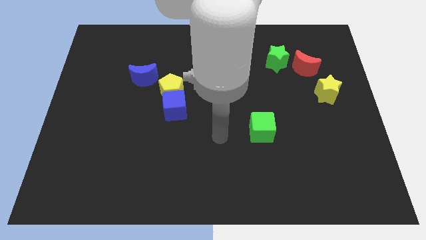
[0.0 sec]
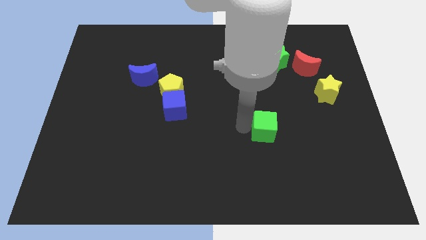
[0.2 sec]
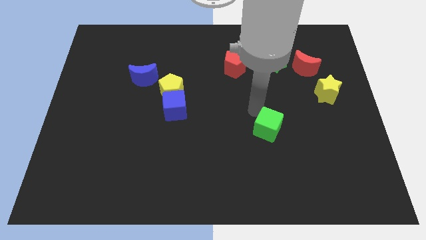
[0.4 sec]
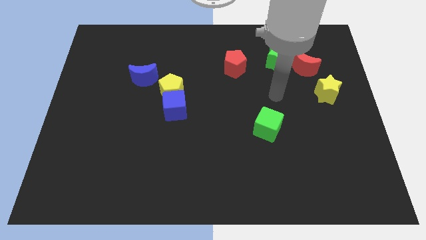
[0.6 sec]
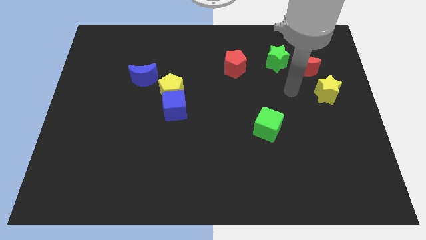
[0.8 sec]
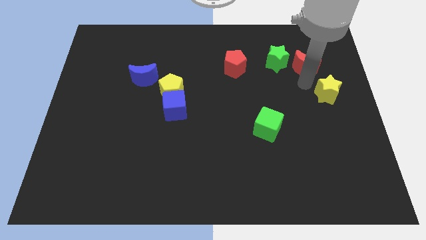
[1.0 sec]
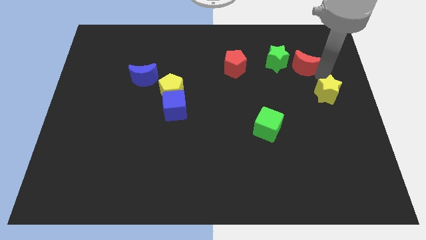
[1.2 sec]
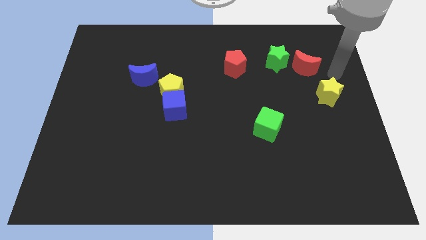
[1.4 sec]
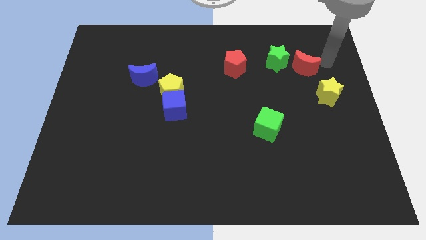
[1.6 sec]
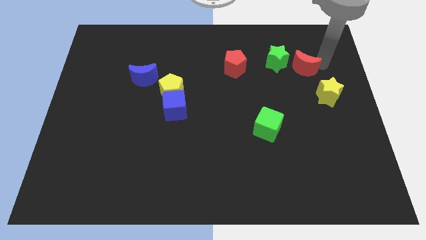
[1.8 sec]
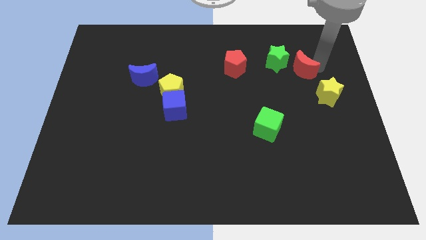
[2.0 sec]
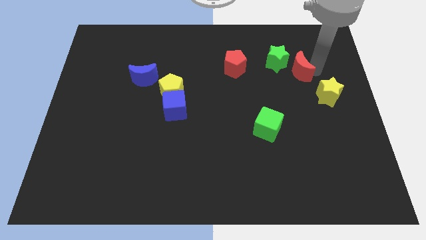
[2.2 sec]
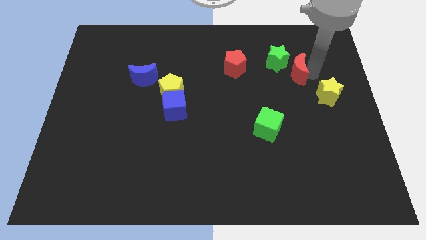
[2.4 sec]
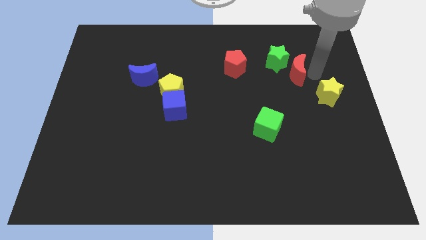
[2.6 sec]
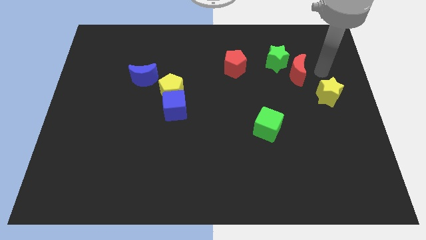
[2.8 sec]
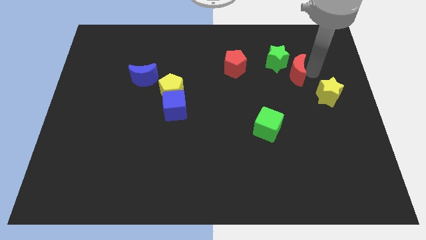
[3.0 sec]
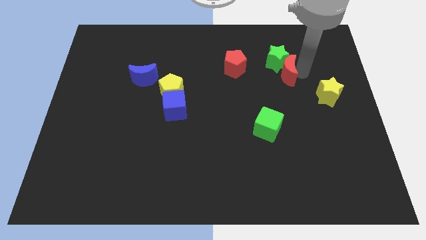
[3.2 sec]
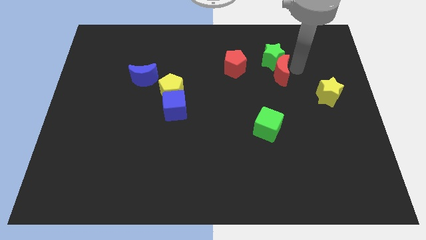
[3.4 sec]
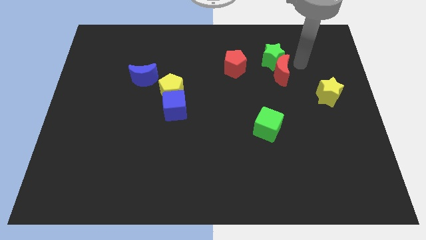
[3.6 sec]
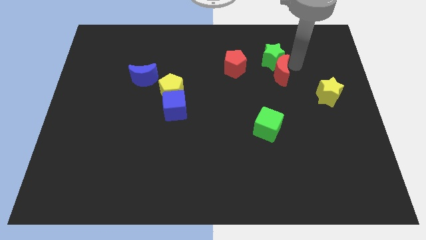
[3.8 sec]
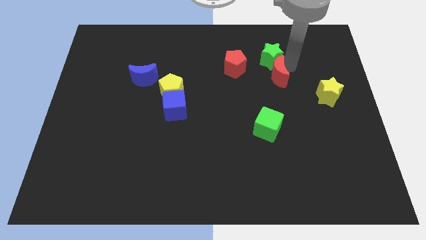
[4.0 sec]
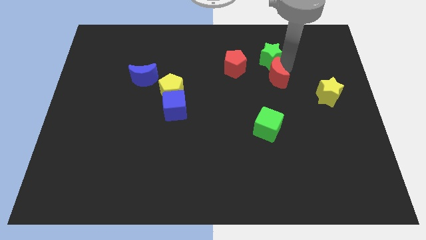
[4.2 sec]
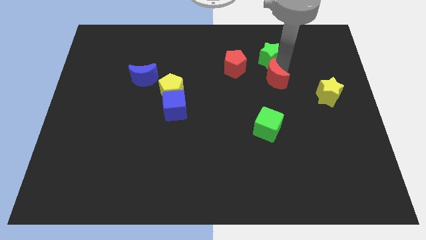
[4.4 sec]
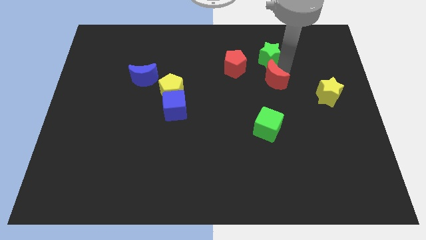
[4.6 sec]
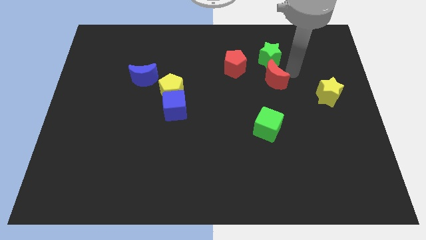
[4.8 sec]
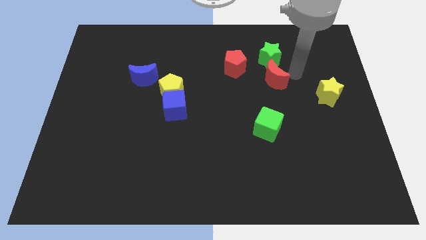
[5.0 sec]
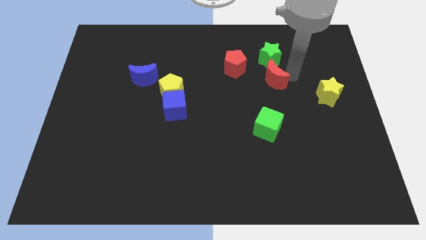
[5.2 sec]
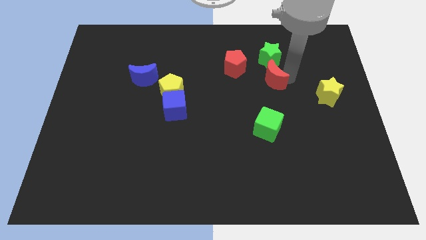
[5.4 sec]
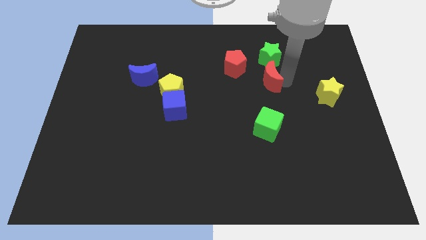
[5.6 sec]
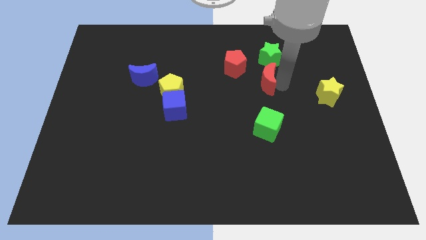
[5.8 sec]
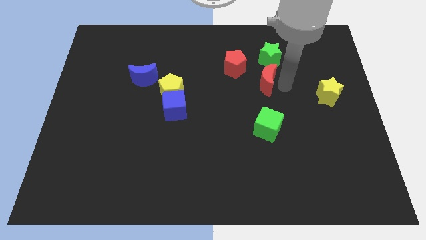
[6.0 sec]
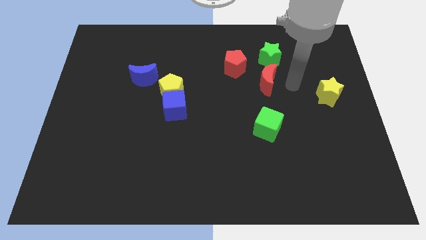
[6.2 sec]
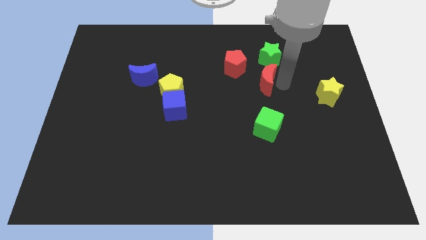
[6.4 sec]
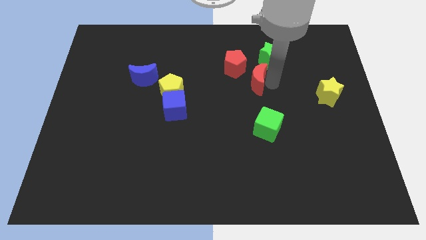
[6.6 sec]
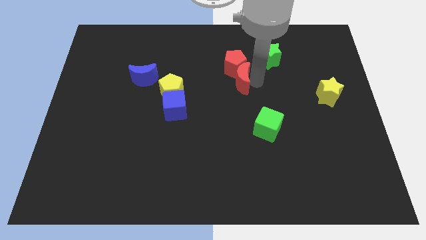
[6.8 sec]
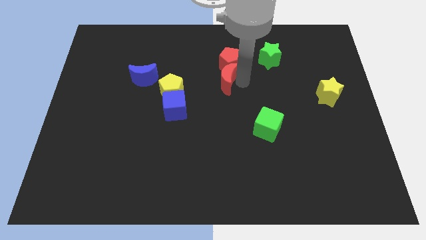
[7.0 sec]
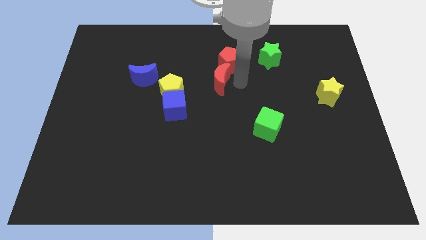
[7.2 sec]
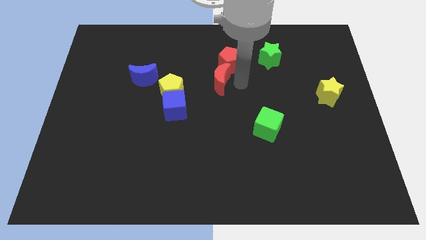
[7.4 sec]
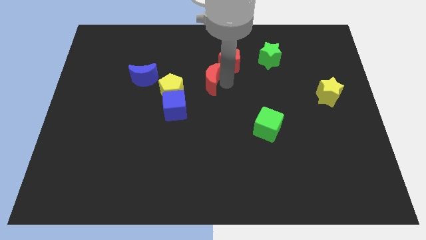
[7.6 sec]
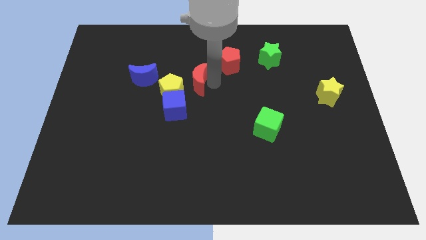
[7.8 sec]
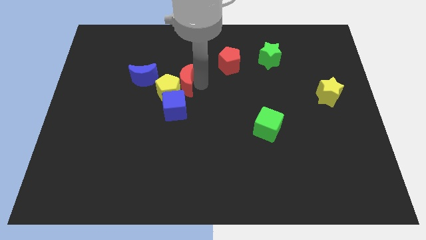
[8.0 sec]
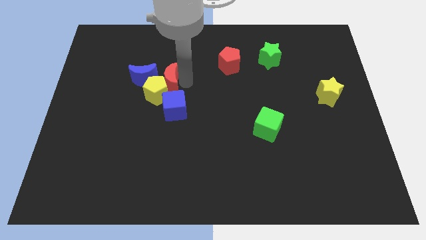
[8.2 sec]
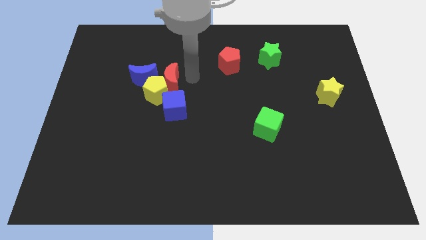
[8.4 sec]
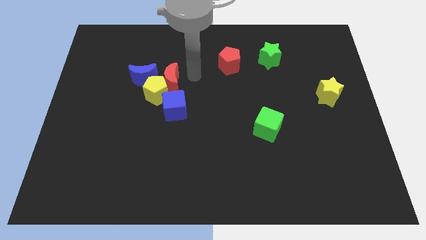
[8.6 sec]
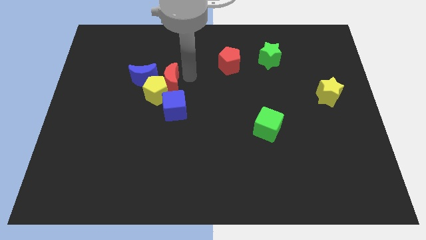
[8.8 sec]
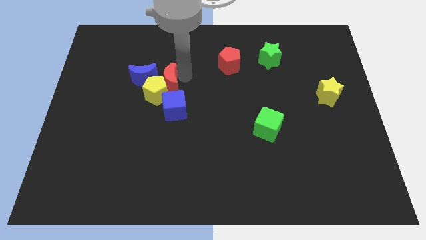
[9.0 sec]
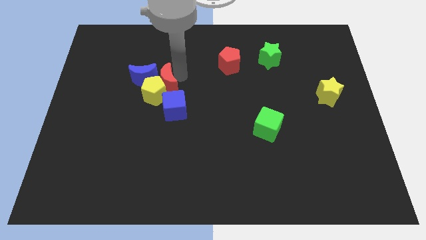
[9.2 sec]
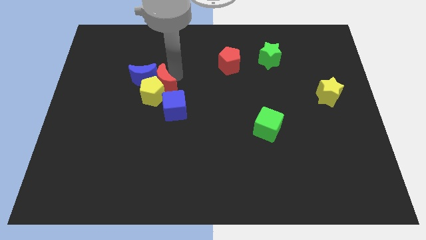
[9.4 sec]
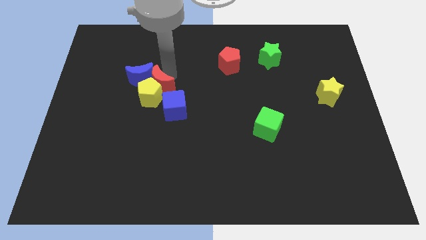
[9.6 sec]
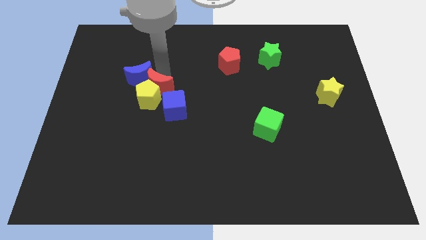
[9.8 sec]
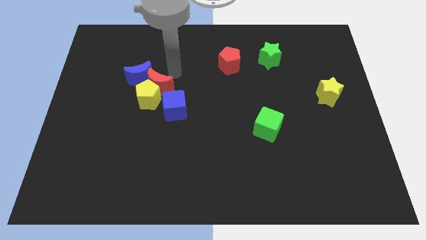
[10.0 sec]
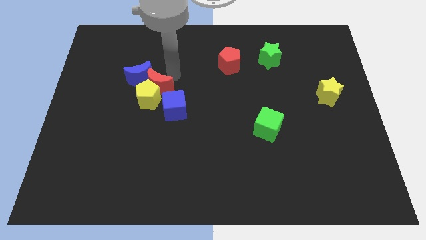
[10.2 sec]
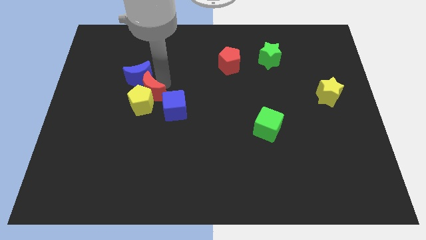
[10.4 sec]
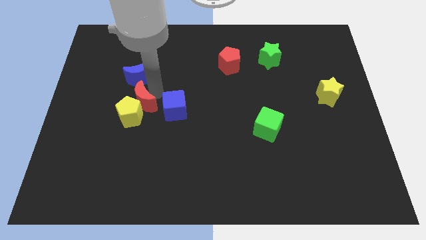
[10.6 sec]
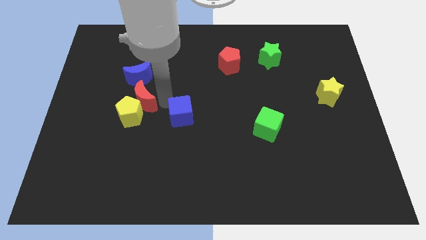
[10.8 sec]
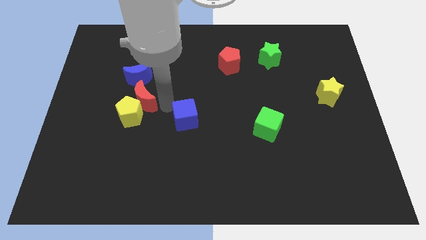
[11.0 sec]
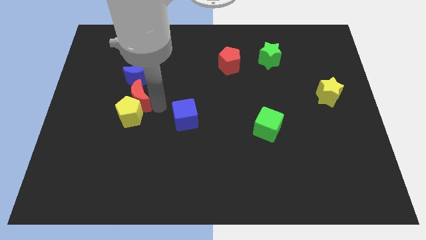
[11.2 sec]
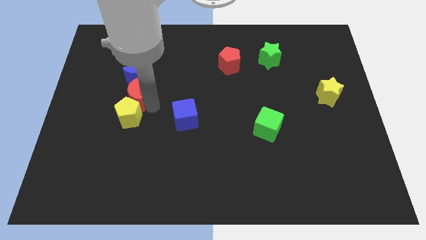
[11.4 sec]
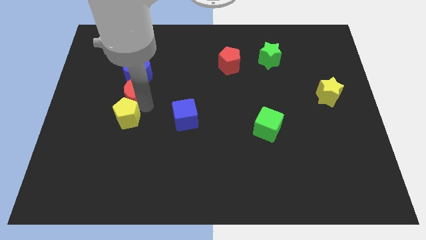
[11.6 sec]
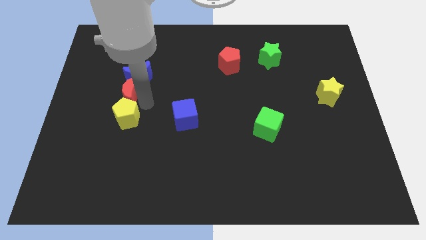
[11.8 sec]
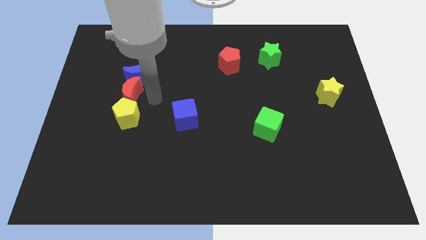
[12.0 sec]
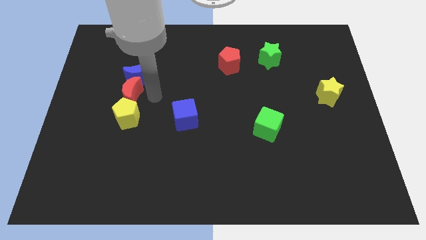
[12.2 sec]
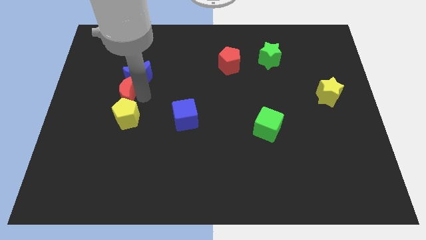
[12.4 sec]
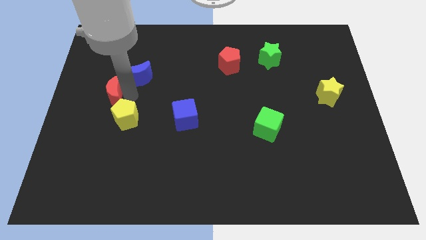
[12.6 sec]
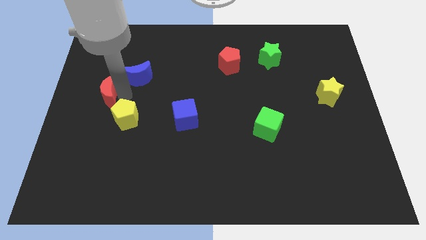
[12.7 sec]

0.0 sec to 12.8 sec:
move the red moon to the left side
